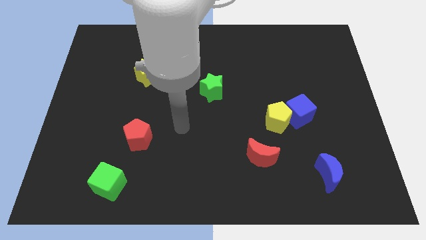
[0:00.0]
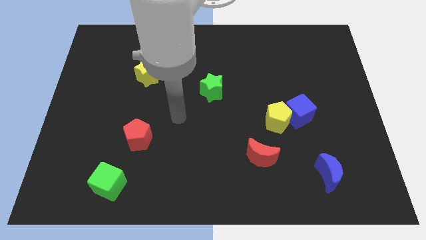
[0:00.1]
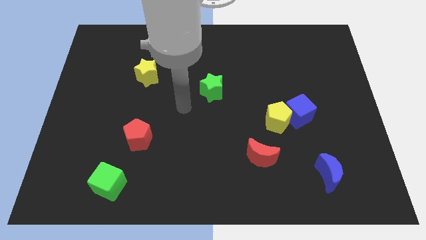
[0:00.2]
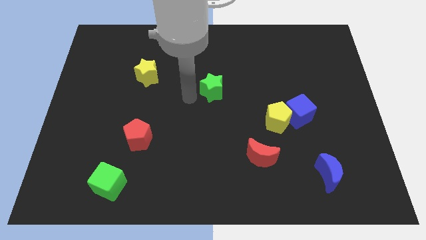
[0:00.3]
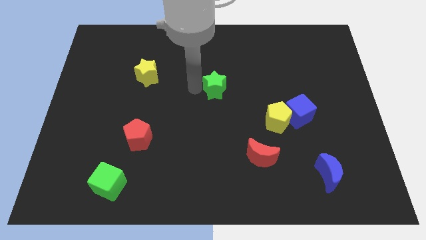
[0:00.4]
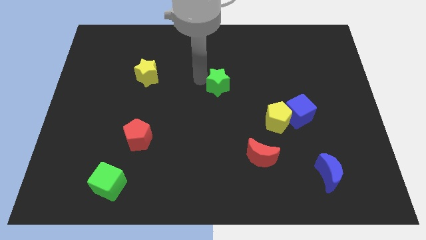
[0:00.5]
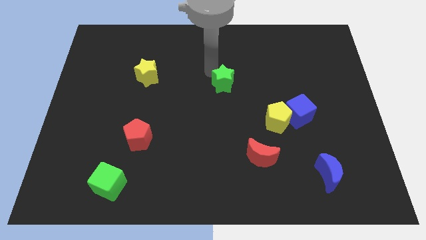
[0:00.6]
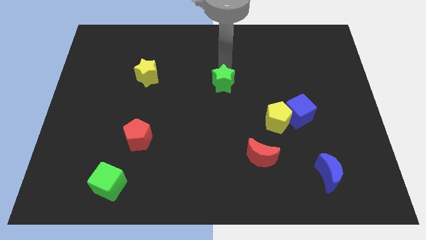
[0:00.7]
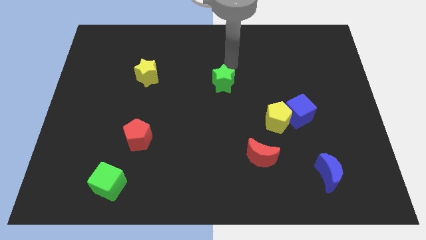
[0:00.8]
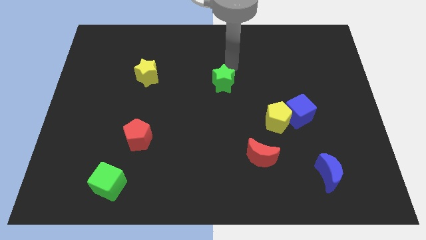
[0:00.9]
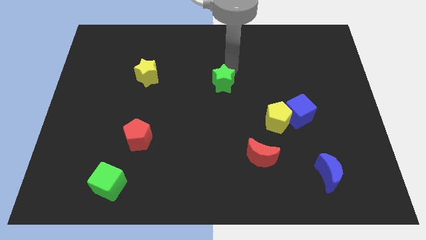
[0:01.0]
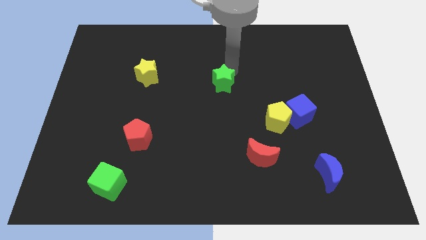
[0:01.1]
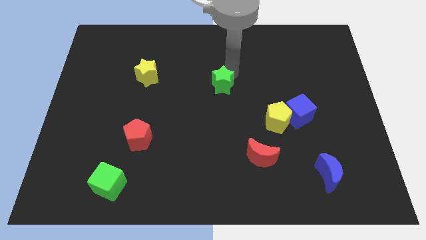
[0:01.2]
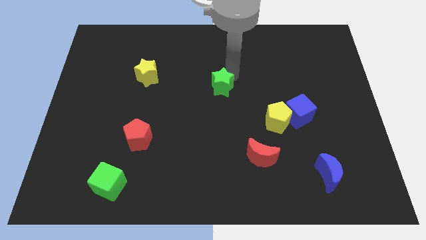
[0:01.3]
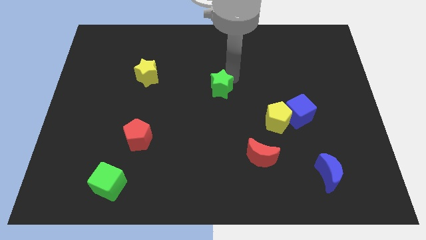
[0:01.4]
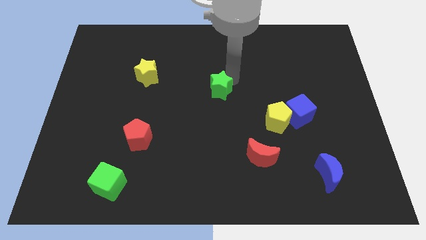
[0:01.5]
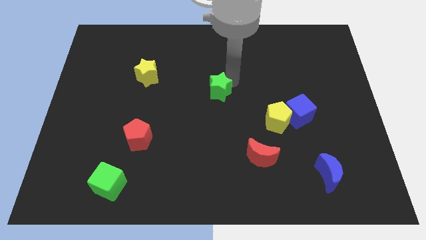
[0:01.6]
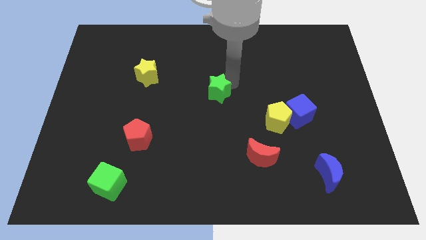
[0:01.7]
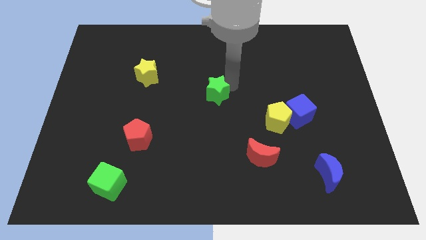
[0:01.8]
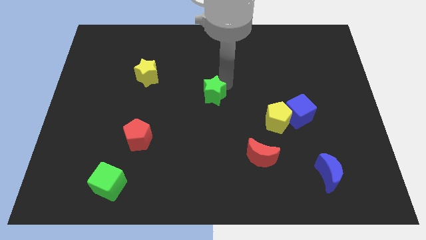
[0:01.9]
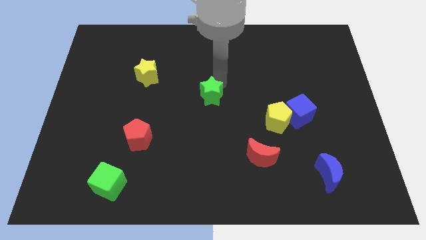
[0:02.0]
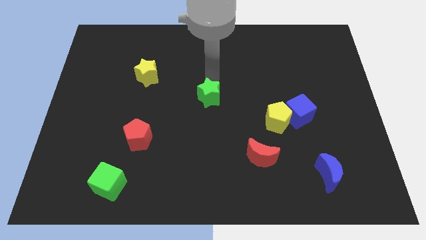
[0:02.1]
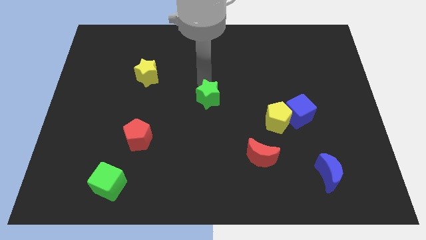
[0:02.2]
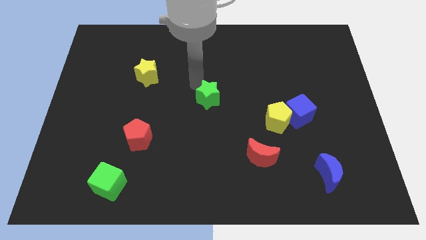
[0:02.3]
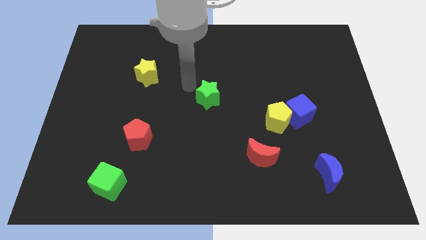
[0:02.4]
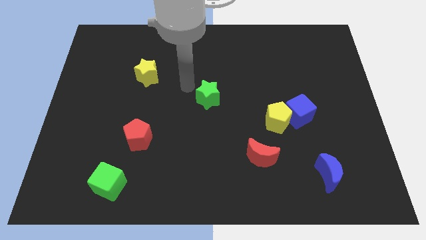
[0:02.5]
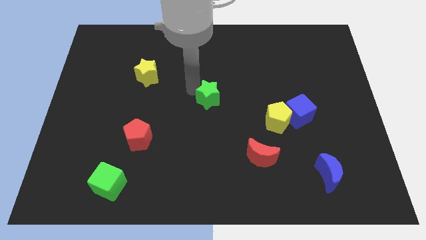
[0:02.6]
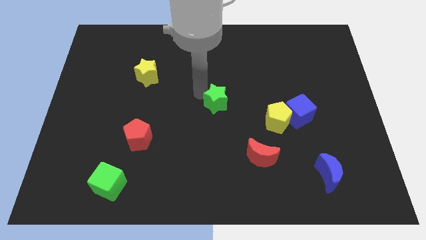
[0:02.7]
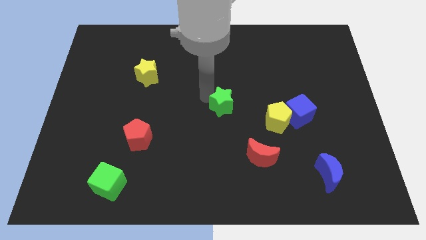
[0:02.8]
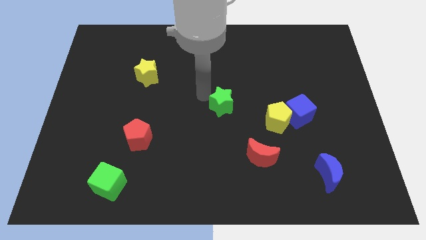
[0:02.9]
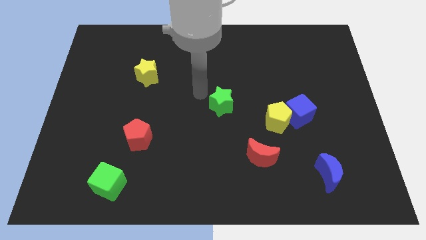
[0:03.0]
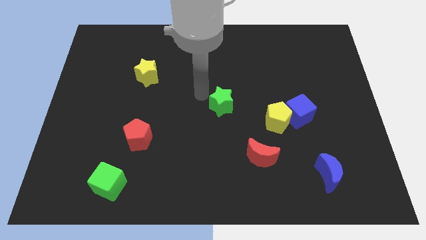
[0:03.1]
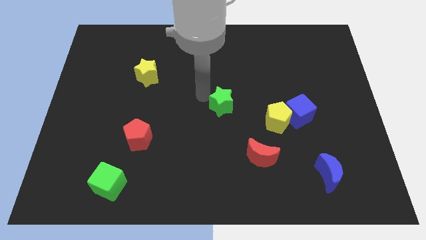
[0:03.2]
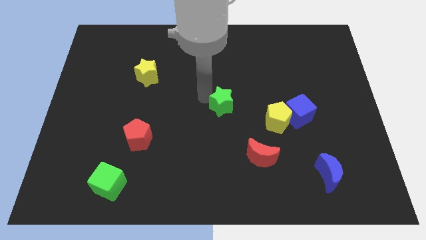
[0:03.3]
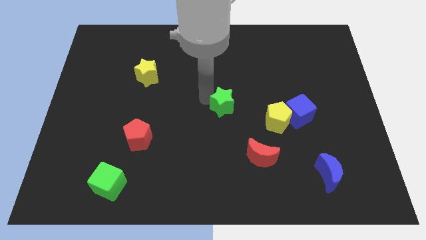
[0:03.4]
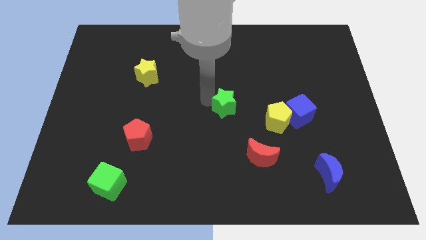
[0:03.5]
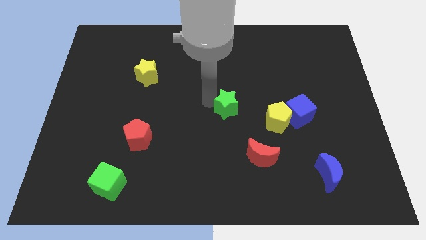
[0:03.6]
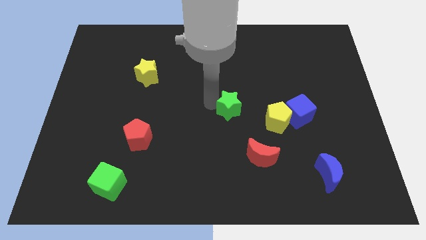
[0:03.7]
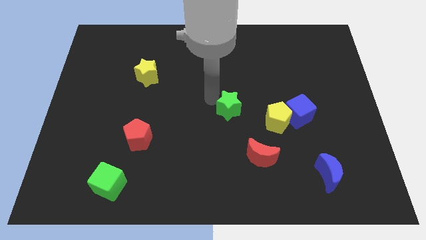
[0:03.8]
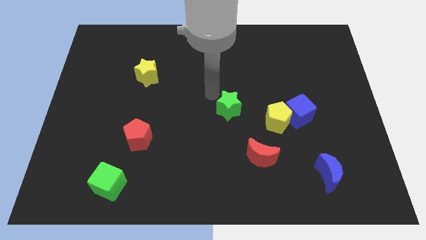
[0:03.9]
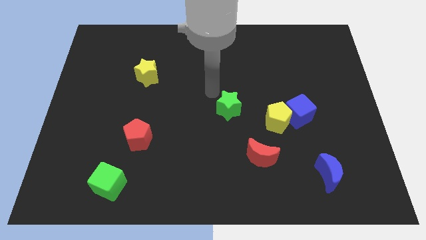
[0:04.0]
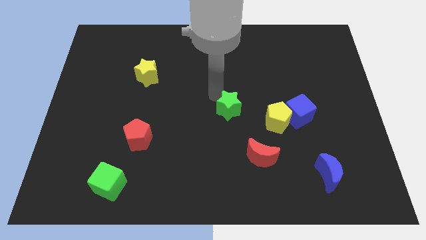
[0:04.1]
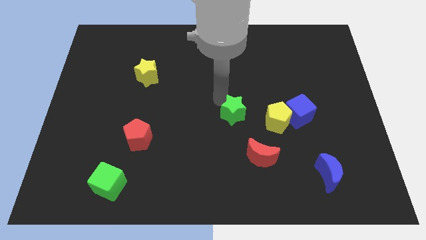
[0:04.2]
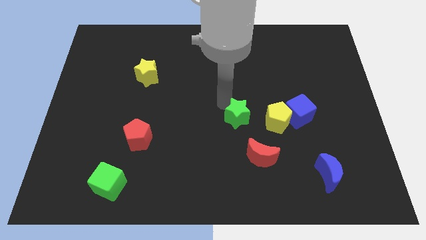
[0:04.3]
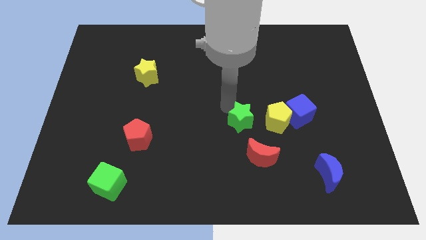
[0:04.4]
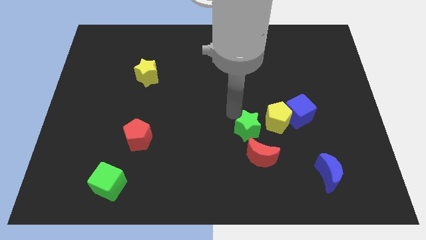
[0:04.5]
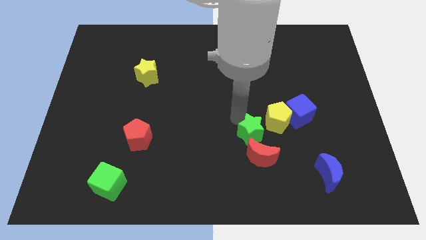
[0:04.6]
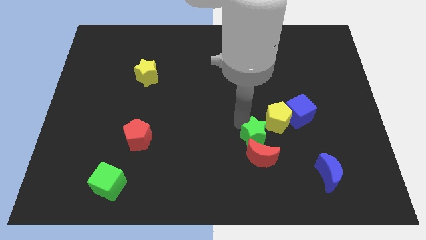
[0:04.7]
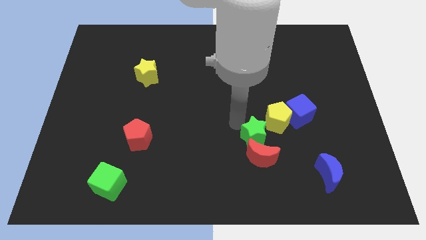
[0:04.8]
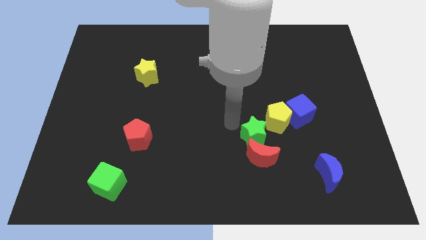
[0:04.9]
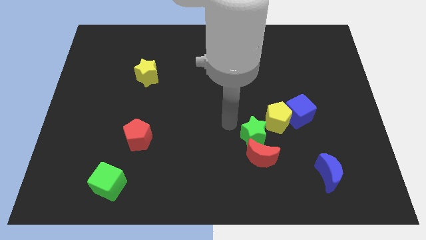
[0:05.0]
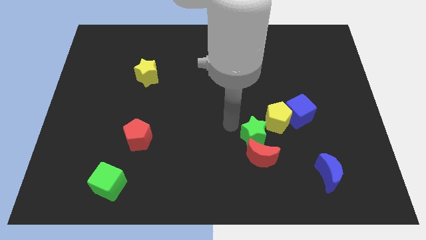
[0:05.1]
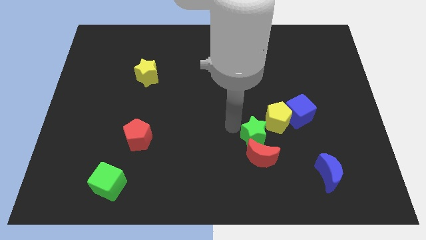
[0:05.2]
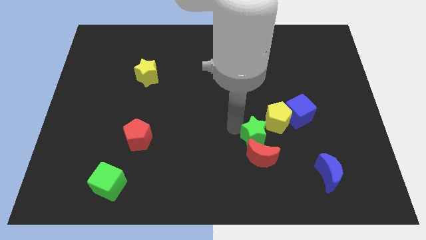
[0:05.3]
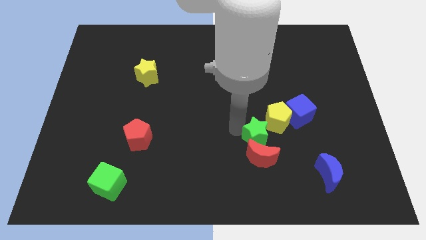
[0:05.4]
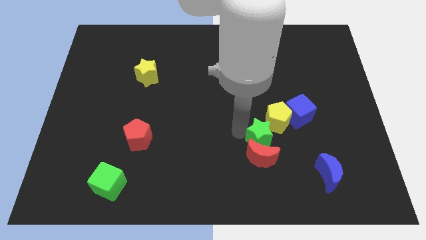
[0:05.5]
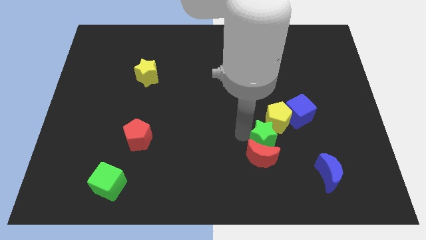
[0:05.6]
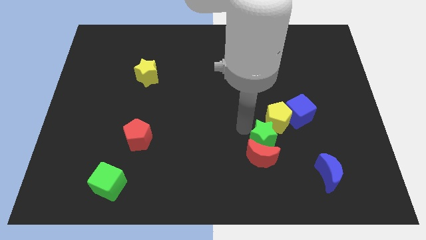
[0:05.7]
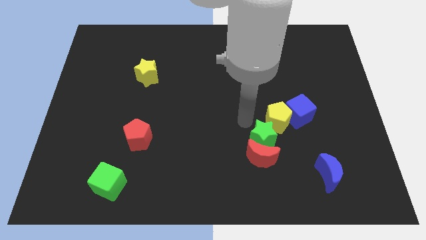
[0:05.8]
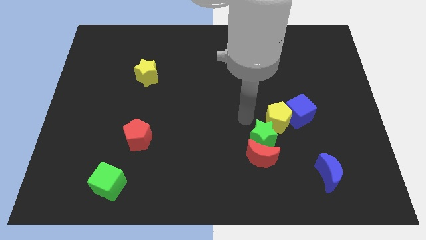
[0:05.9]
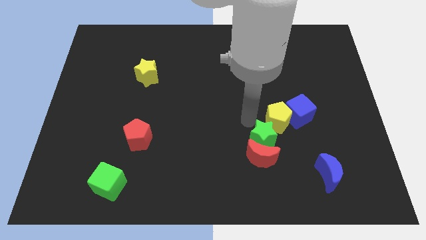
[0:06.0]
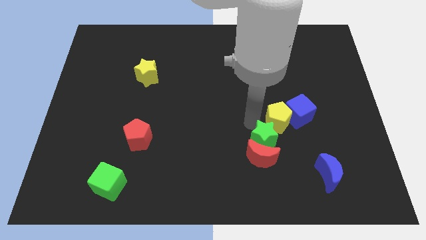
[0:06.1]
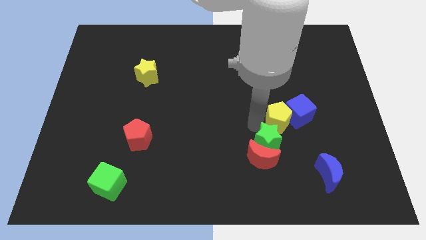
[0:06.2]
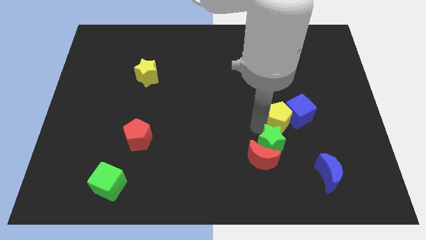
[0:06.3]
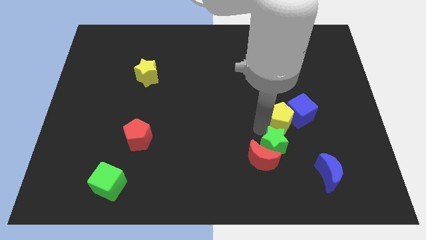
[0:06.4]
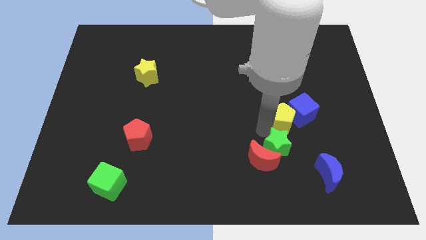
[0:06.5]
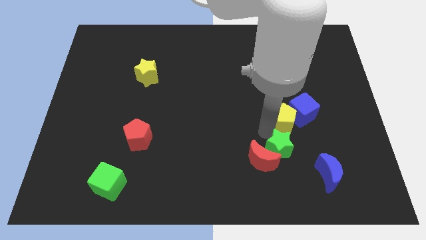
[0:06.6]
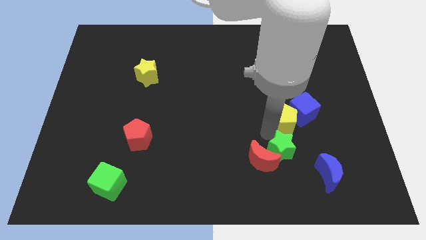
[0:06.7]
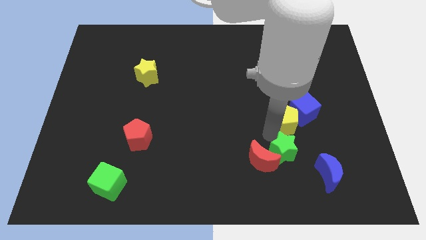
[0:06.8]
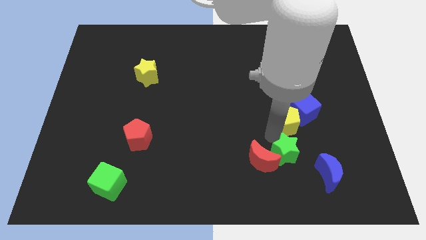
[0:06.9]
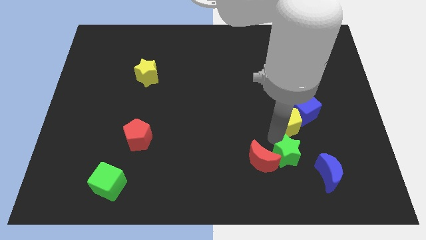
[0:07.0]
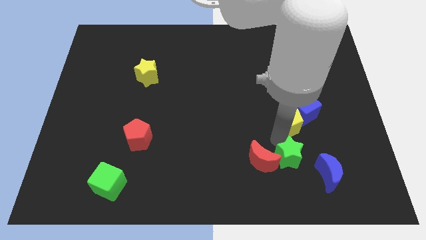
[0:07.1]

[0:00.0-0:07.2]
move the green star diagonally down and to the right of the red moon
